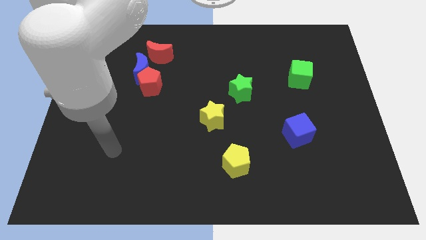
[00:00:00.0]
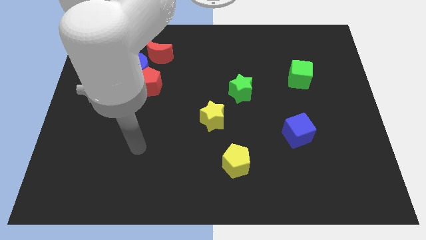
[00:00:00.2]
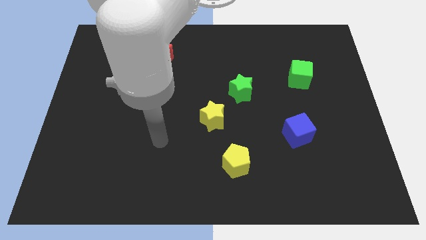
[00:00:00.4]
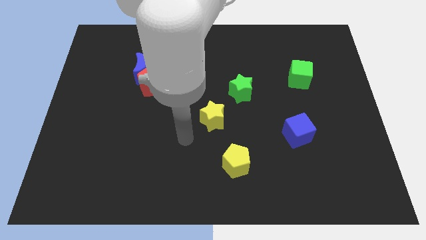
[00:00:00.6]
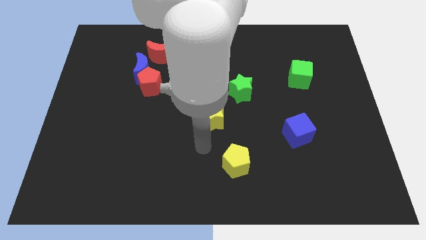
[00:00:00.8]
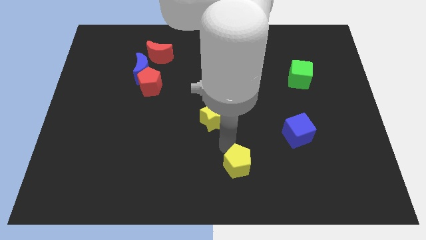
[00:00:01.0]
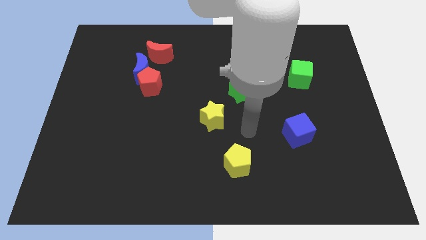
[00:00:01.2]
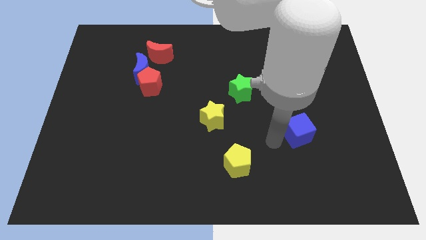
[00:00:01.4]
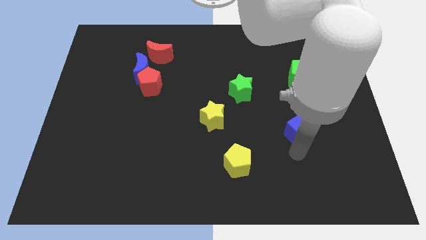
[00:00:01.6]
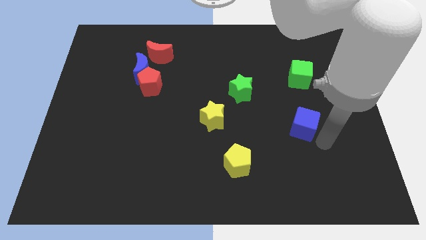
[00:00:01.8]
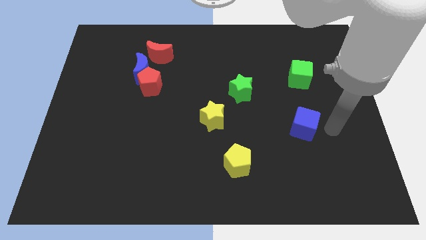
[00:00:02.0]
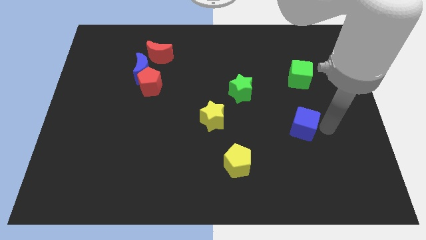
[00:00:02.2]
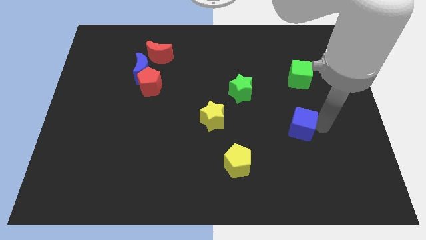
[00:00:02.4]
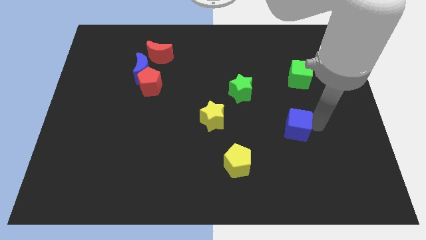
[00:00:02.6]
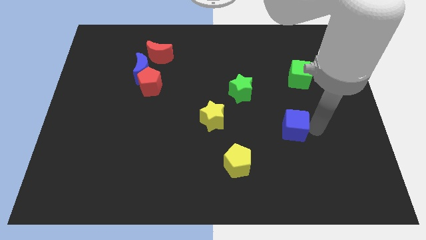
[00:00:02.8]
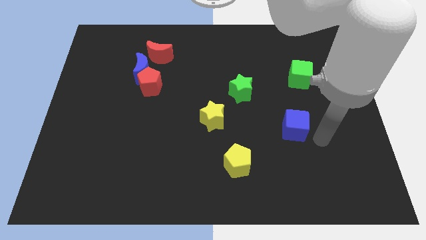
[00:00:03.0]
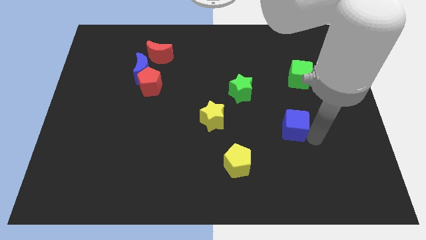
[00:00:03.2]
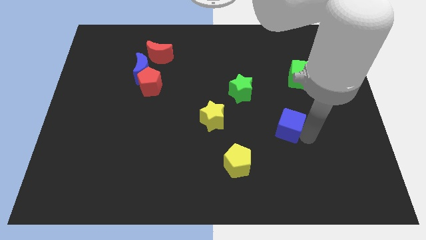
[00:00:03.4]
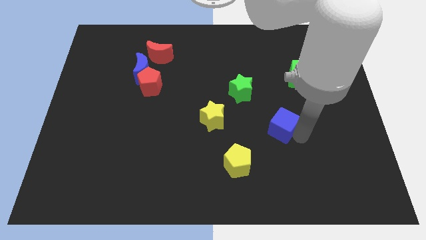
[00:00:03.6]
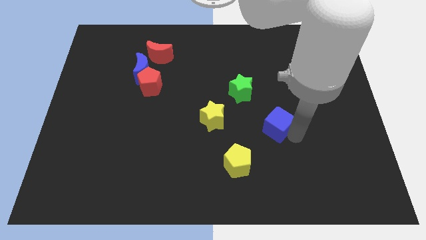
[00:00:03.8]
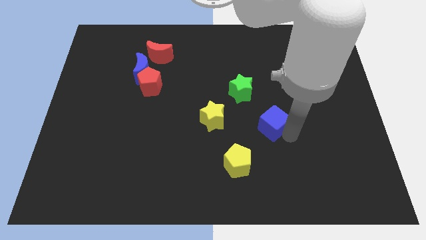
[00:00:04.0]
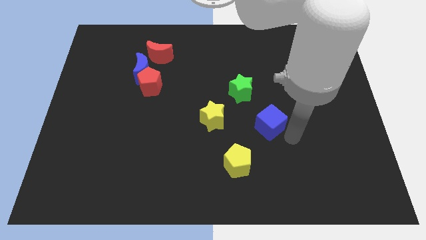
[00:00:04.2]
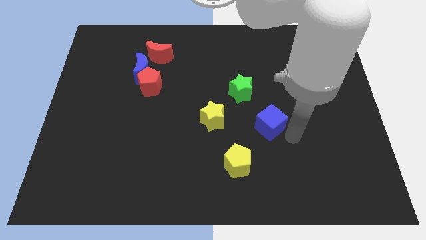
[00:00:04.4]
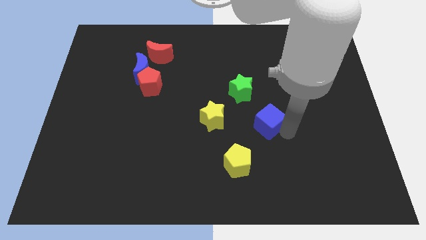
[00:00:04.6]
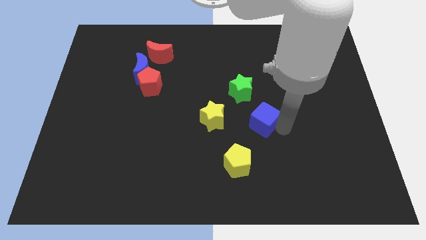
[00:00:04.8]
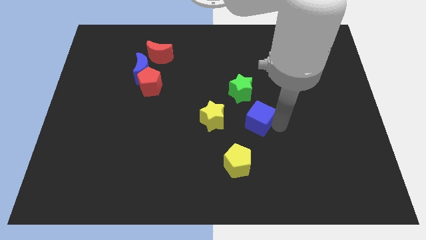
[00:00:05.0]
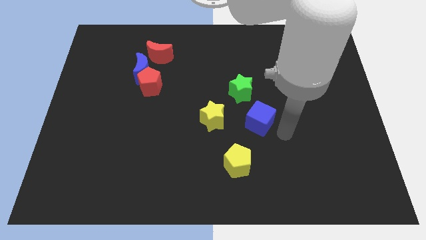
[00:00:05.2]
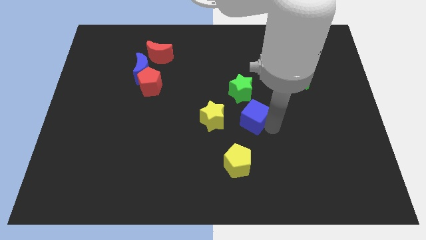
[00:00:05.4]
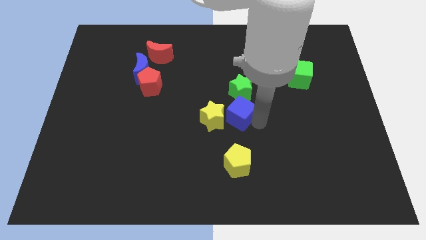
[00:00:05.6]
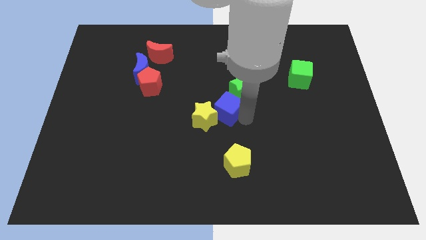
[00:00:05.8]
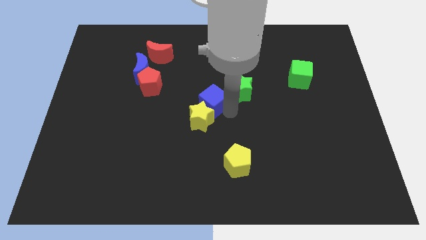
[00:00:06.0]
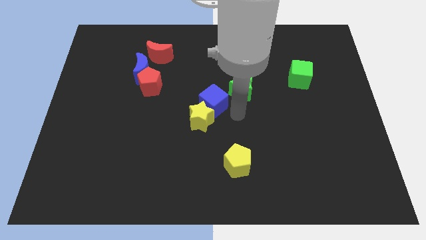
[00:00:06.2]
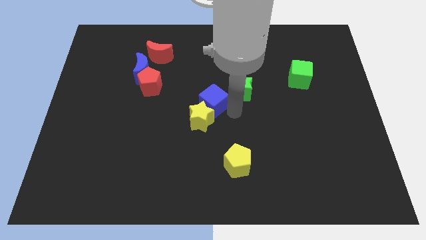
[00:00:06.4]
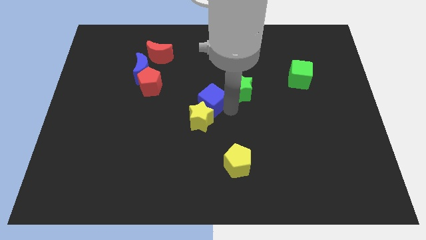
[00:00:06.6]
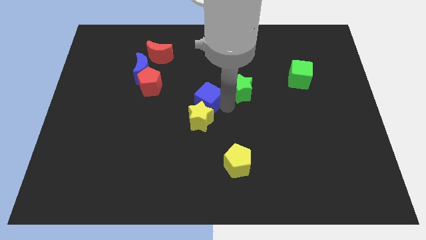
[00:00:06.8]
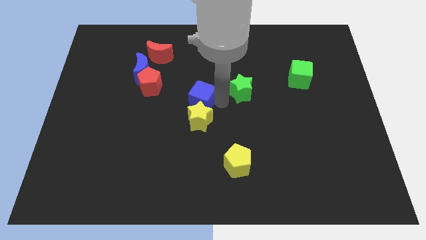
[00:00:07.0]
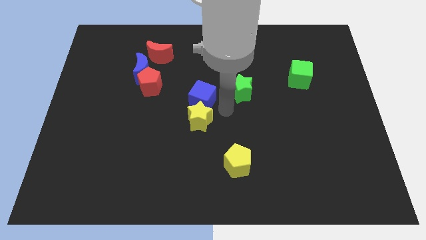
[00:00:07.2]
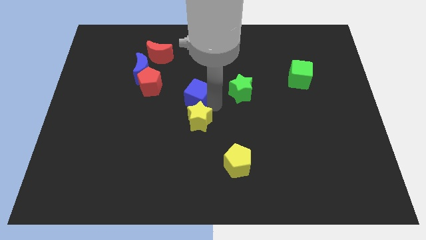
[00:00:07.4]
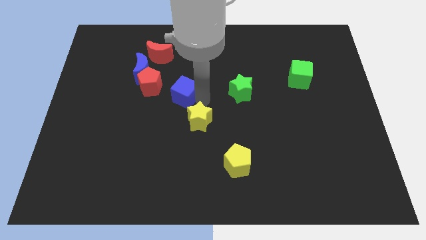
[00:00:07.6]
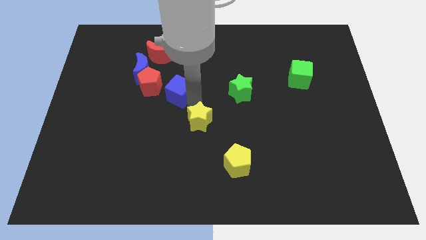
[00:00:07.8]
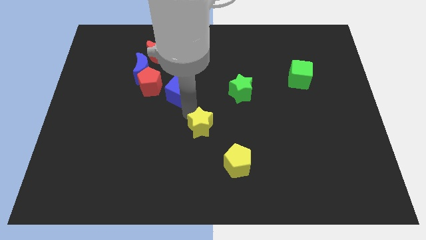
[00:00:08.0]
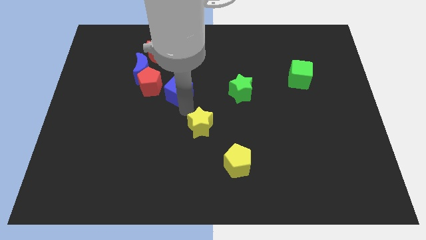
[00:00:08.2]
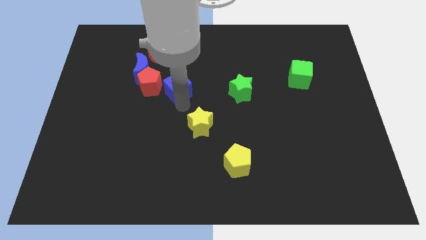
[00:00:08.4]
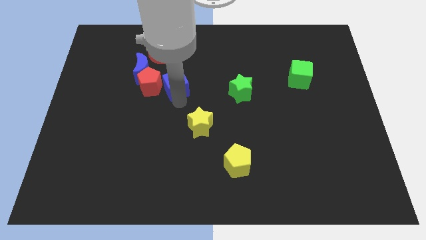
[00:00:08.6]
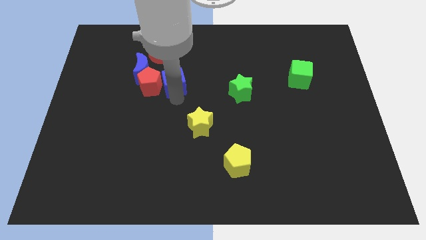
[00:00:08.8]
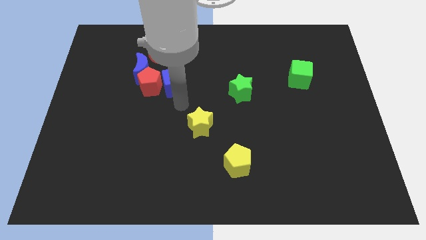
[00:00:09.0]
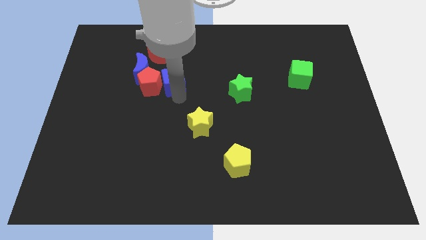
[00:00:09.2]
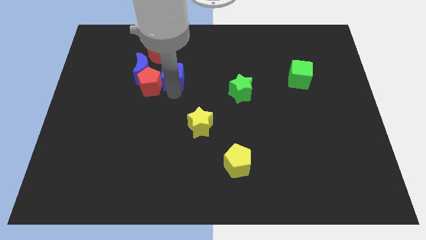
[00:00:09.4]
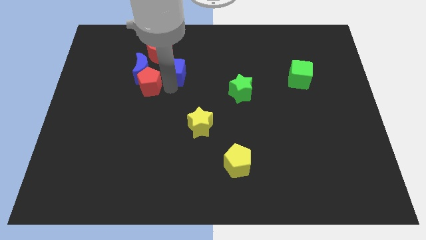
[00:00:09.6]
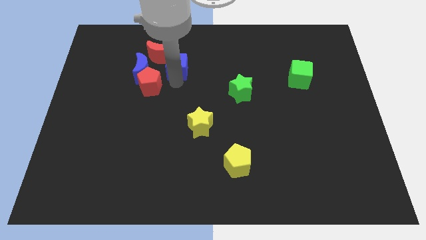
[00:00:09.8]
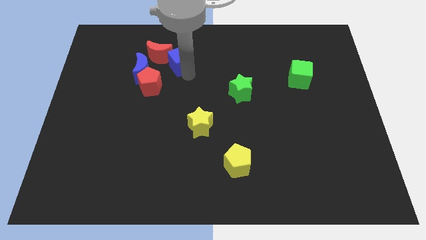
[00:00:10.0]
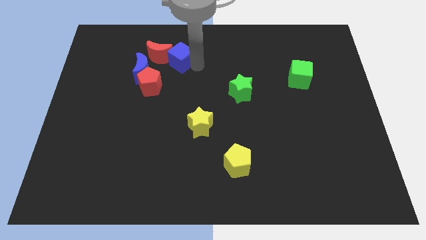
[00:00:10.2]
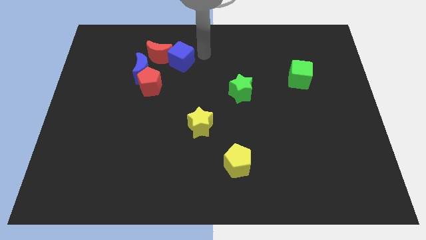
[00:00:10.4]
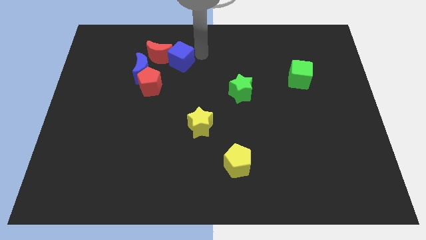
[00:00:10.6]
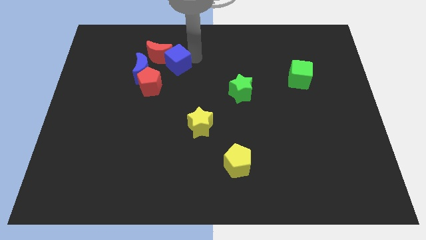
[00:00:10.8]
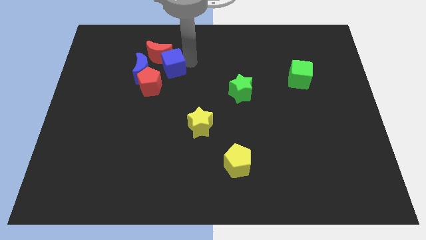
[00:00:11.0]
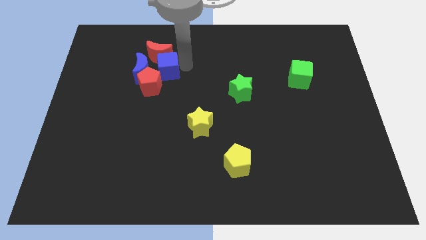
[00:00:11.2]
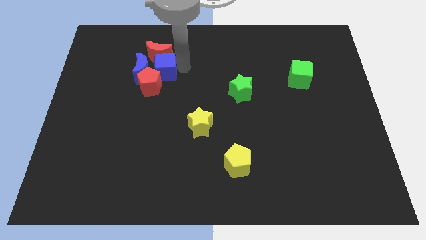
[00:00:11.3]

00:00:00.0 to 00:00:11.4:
push the blue cube next to the blue moon

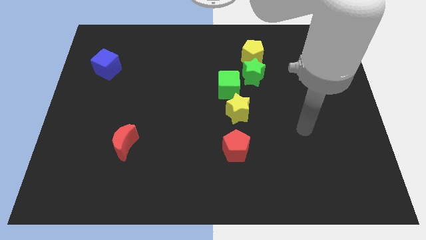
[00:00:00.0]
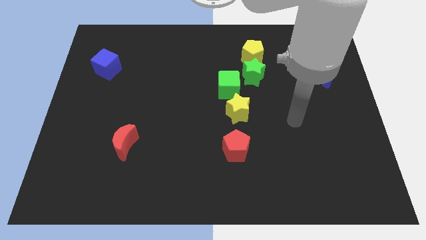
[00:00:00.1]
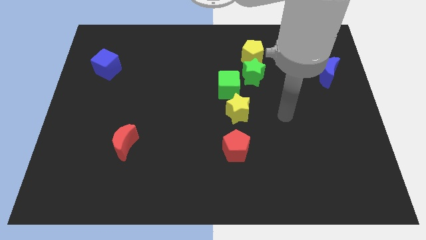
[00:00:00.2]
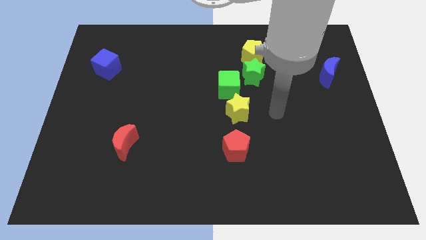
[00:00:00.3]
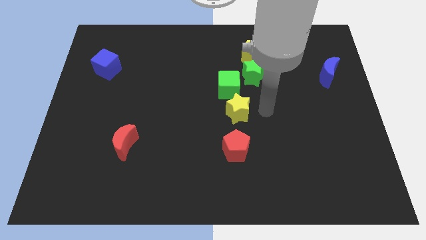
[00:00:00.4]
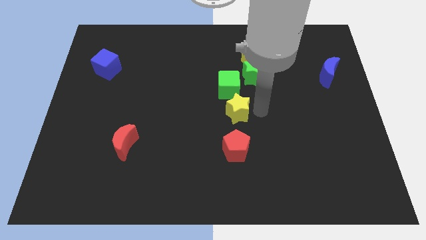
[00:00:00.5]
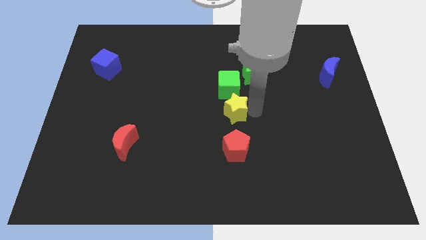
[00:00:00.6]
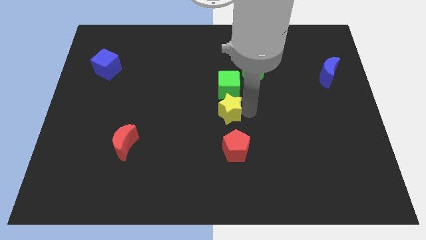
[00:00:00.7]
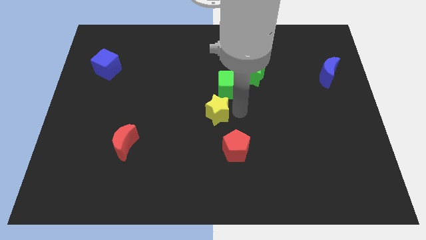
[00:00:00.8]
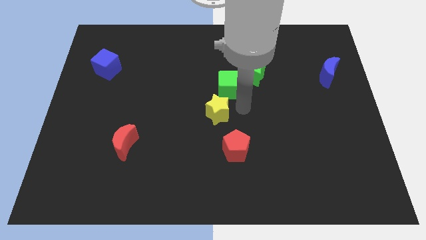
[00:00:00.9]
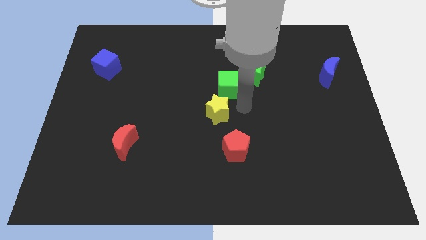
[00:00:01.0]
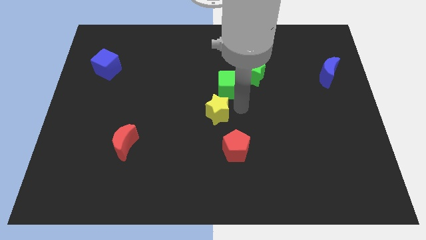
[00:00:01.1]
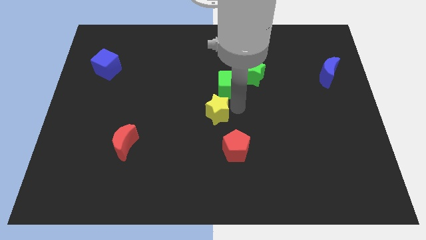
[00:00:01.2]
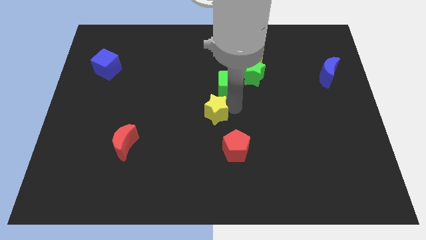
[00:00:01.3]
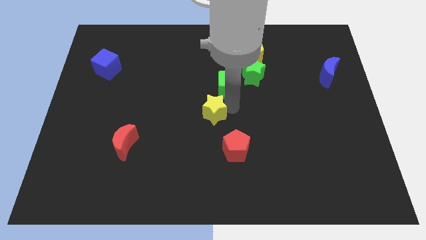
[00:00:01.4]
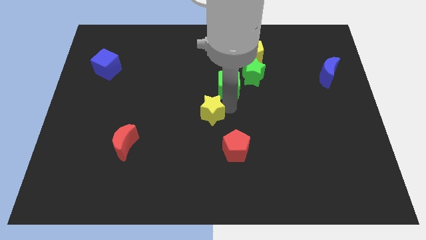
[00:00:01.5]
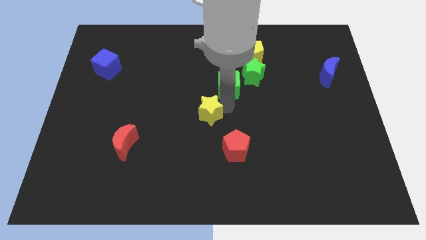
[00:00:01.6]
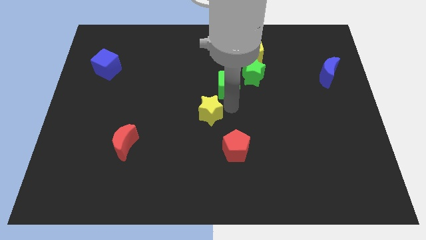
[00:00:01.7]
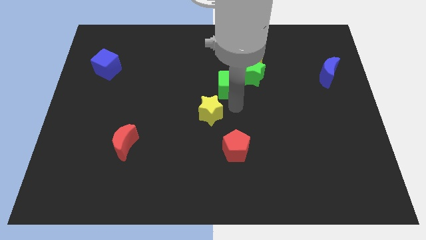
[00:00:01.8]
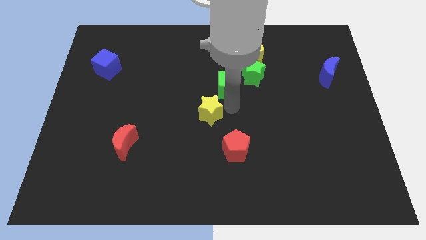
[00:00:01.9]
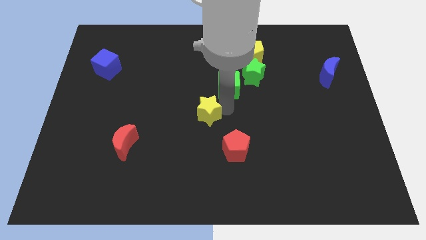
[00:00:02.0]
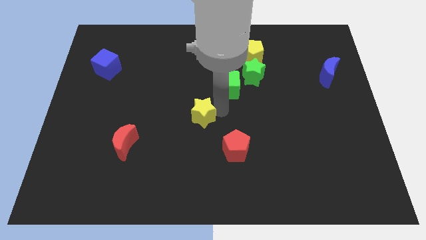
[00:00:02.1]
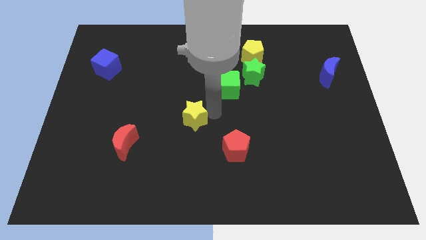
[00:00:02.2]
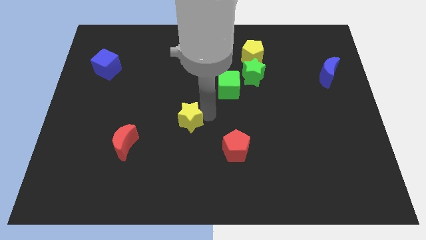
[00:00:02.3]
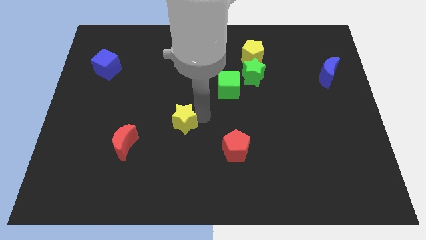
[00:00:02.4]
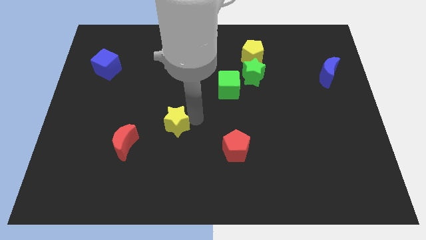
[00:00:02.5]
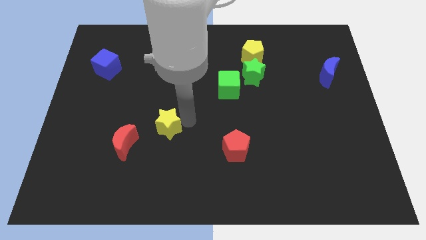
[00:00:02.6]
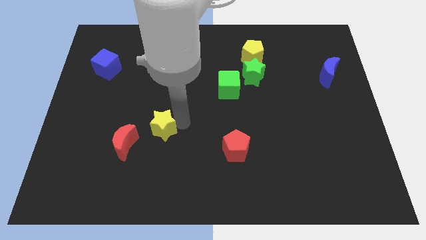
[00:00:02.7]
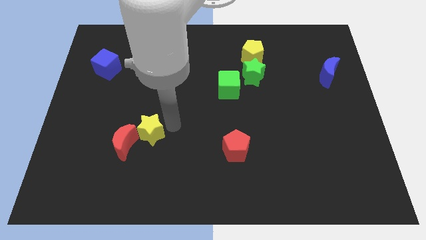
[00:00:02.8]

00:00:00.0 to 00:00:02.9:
push the yellow star towards the red moon
